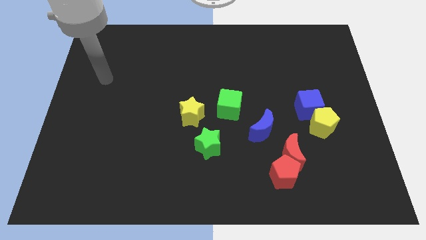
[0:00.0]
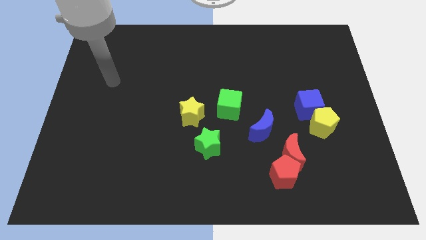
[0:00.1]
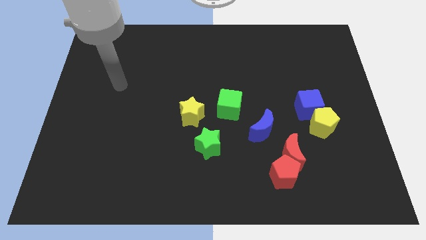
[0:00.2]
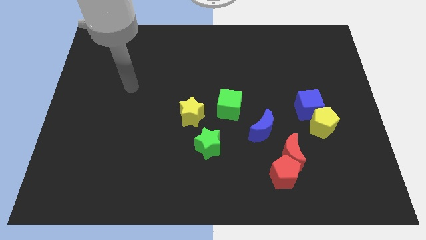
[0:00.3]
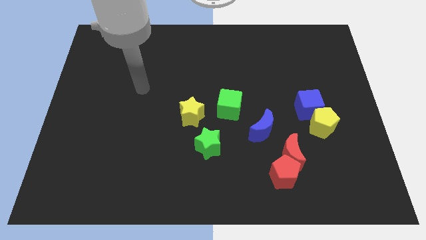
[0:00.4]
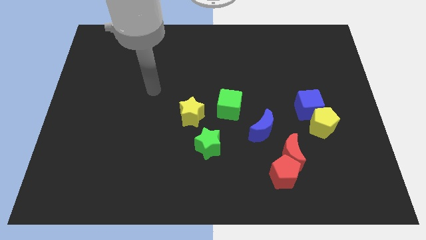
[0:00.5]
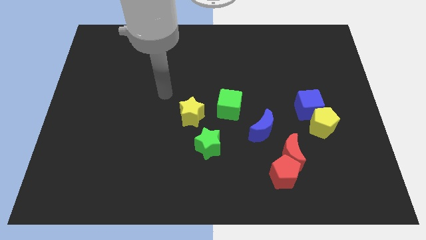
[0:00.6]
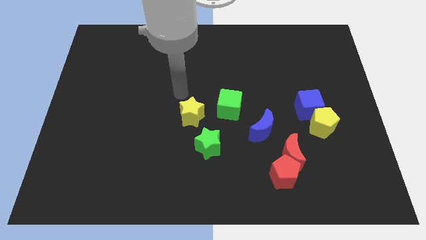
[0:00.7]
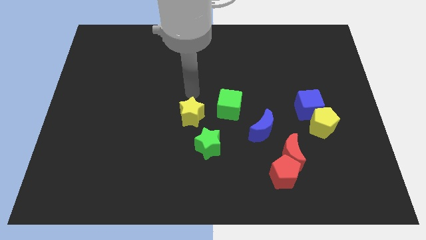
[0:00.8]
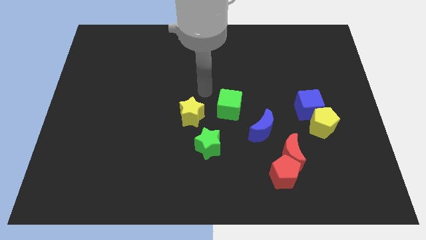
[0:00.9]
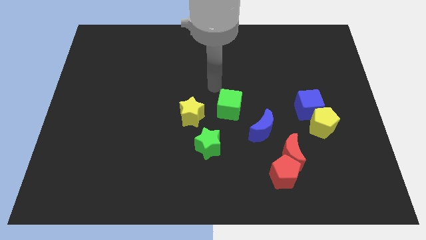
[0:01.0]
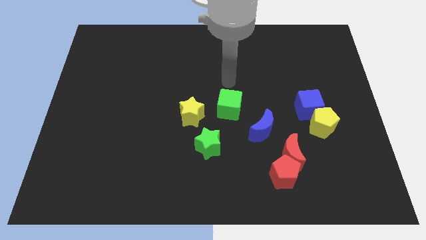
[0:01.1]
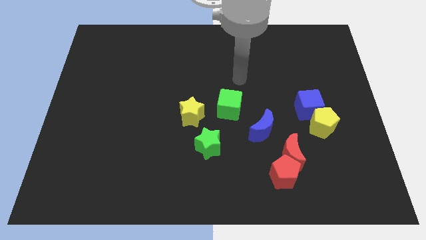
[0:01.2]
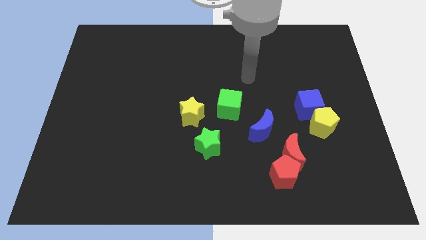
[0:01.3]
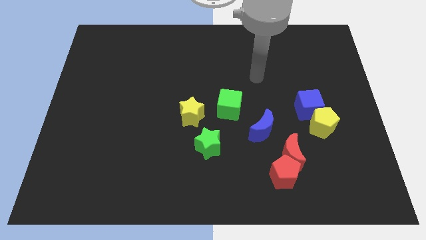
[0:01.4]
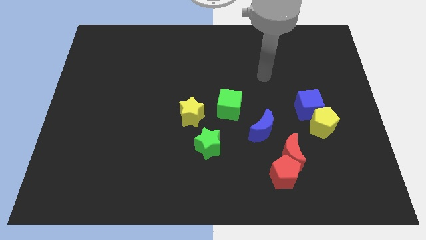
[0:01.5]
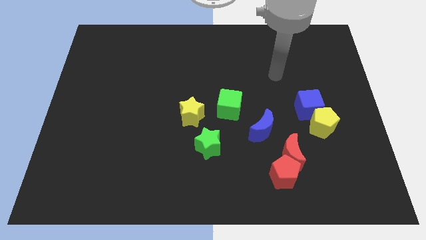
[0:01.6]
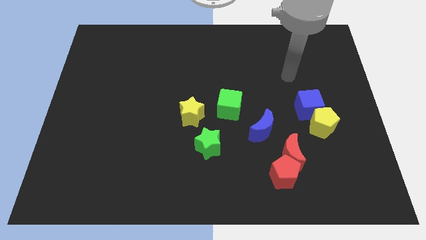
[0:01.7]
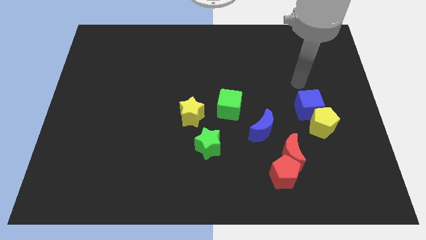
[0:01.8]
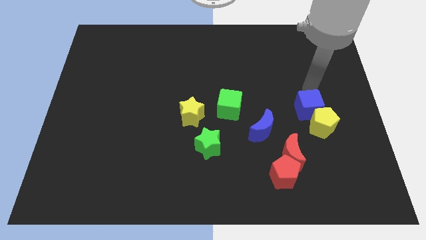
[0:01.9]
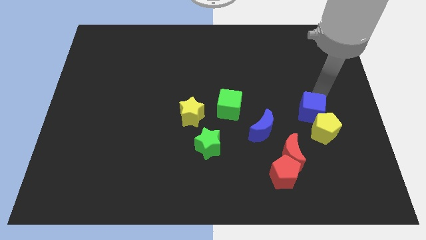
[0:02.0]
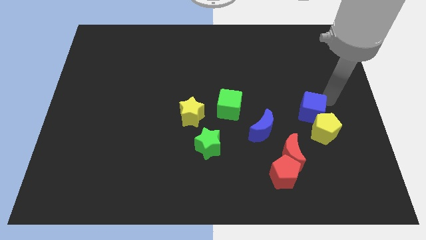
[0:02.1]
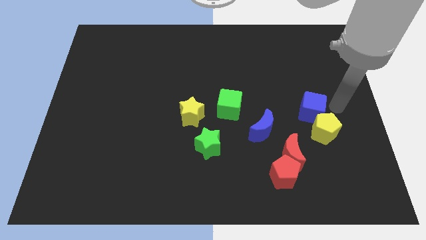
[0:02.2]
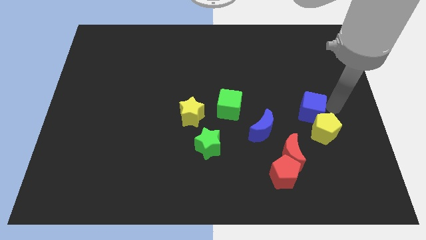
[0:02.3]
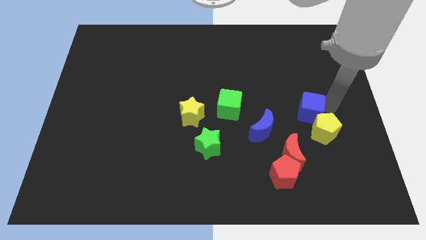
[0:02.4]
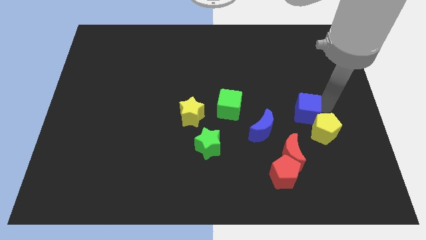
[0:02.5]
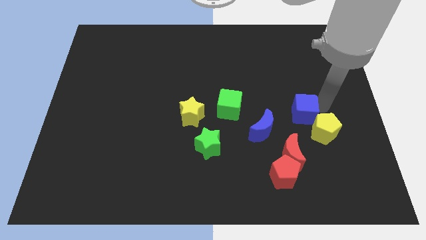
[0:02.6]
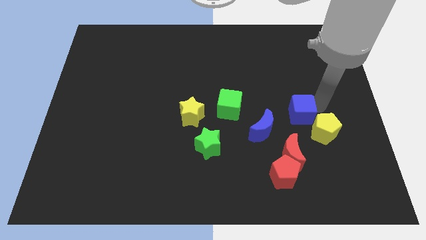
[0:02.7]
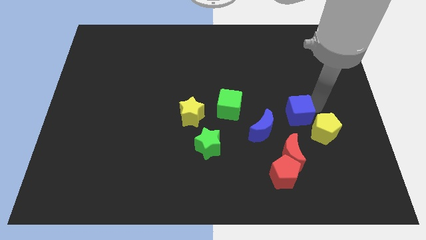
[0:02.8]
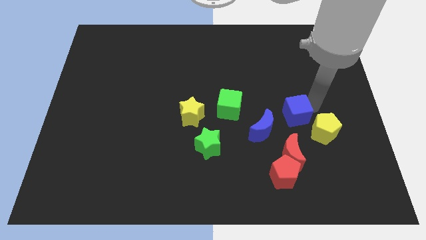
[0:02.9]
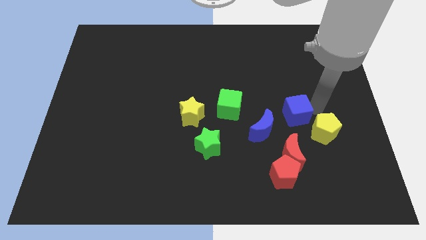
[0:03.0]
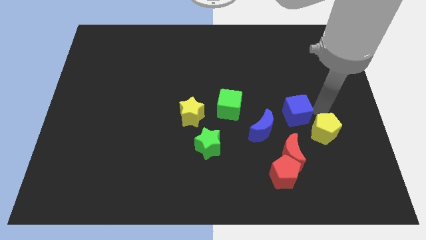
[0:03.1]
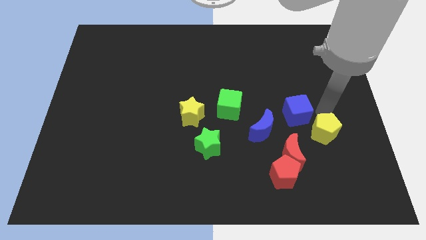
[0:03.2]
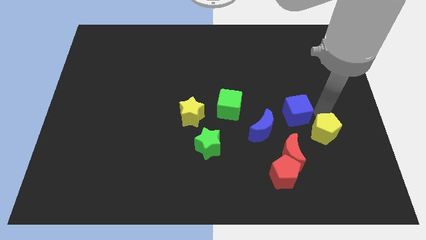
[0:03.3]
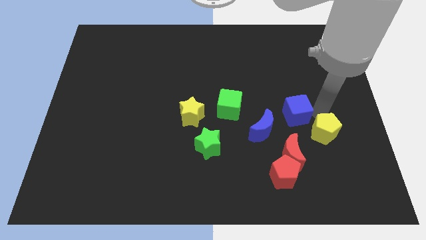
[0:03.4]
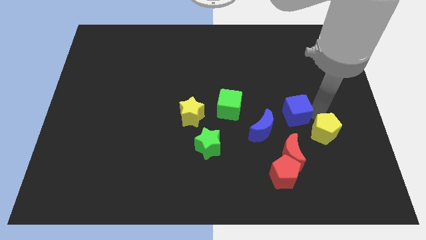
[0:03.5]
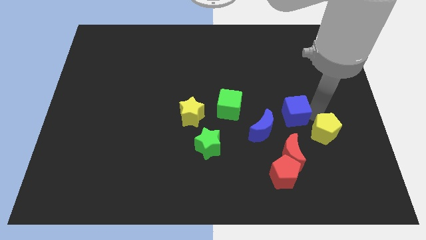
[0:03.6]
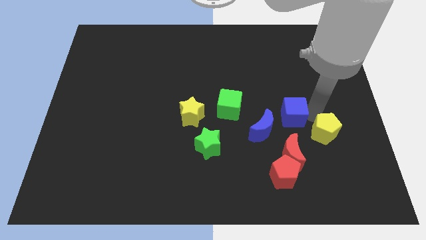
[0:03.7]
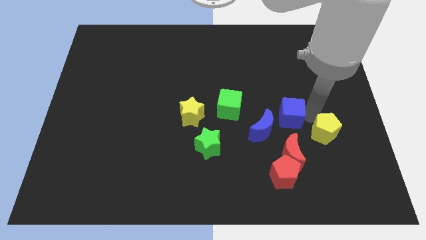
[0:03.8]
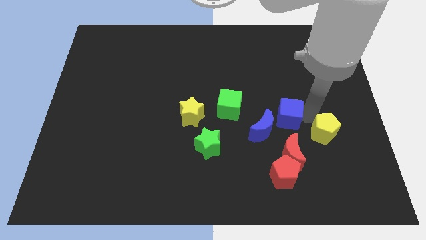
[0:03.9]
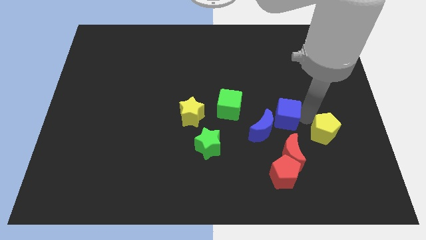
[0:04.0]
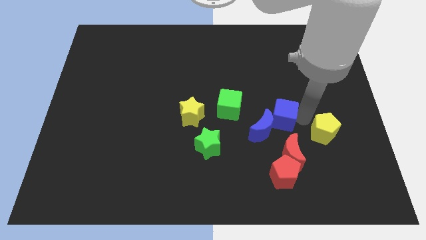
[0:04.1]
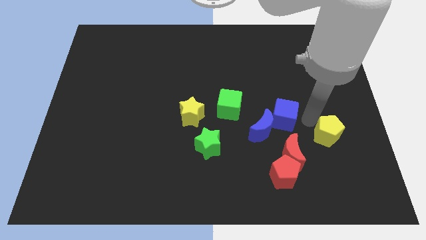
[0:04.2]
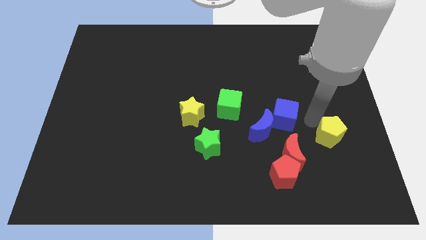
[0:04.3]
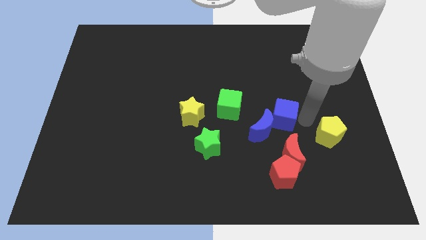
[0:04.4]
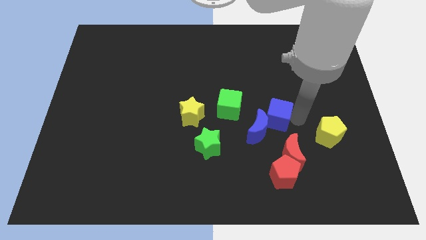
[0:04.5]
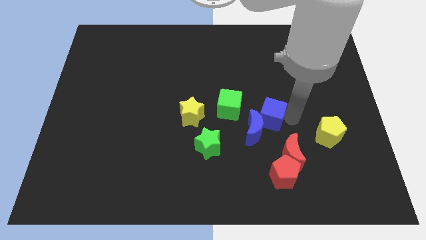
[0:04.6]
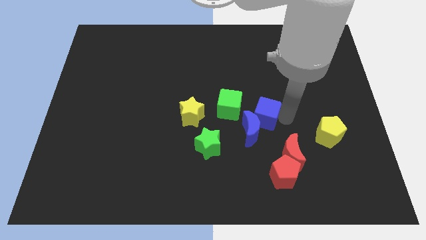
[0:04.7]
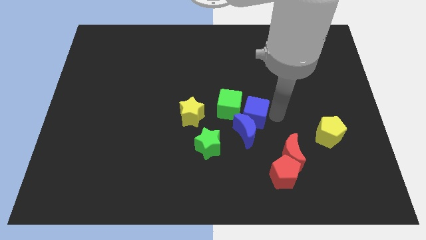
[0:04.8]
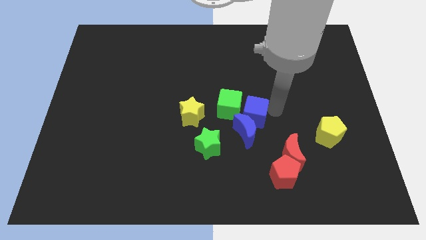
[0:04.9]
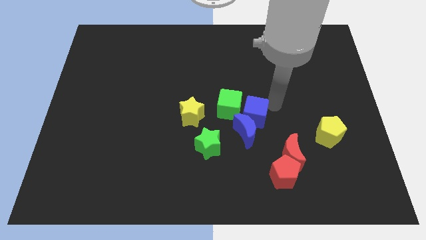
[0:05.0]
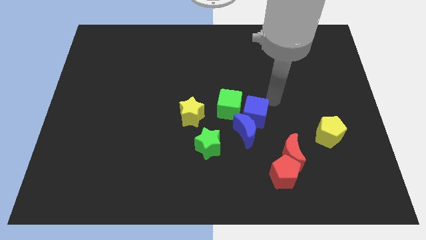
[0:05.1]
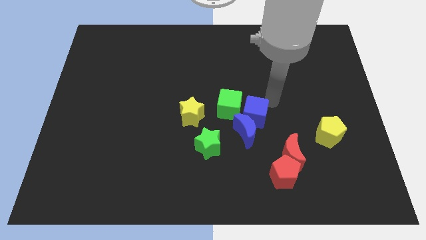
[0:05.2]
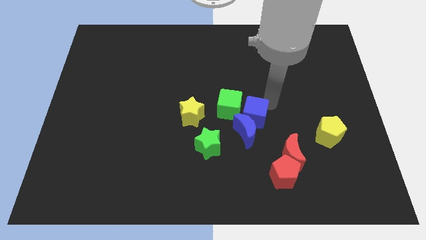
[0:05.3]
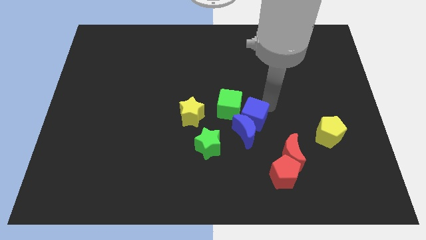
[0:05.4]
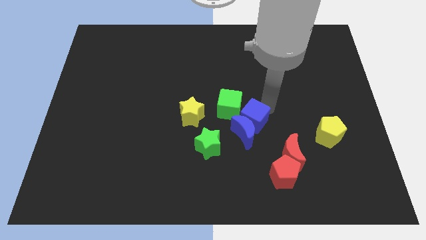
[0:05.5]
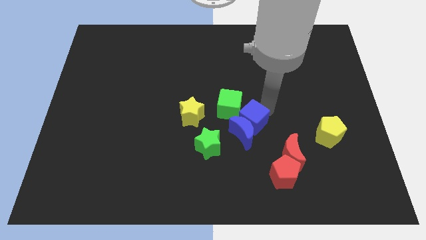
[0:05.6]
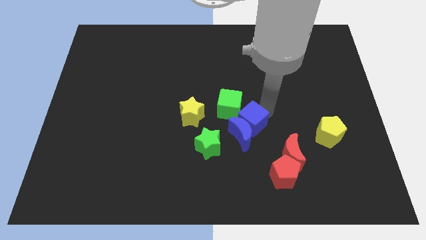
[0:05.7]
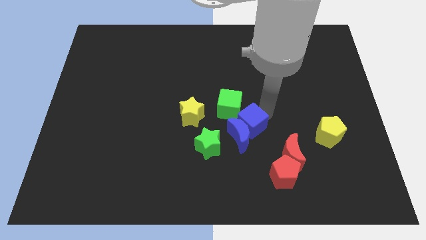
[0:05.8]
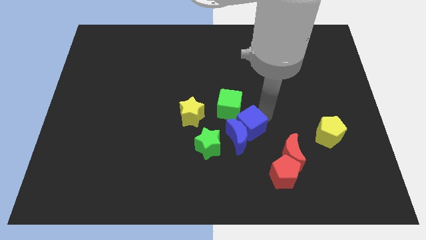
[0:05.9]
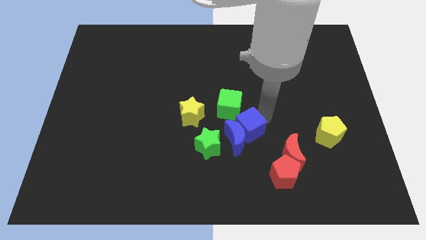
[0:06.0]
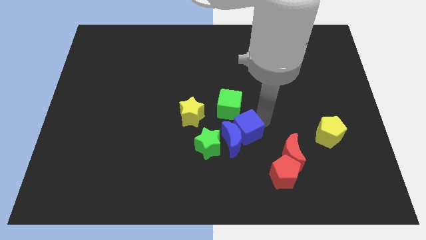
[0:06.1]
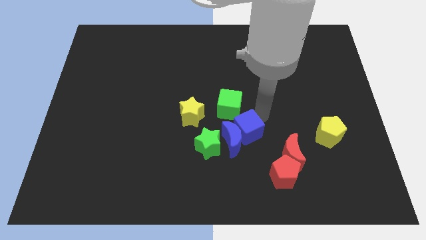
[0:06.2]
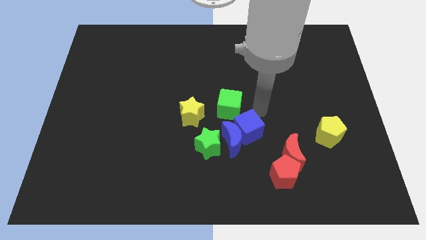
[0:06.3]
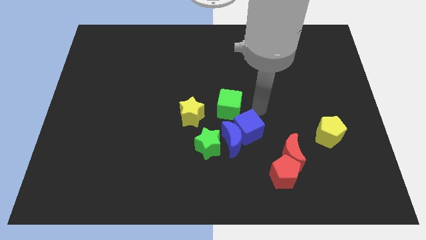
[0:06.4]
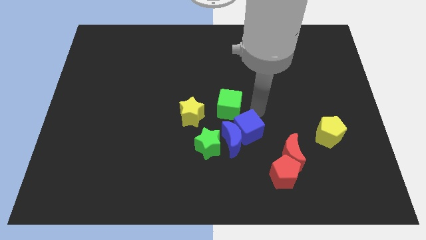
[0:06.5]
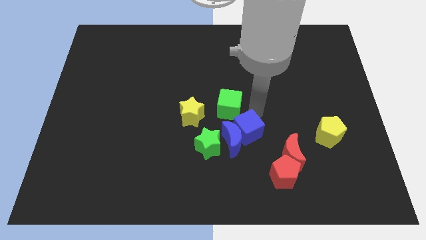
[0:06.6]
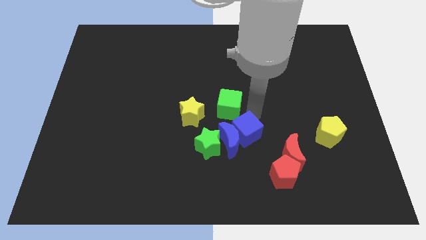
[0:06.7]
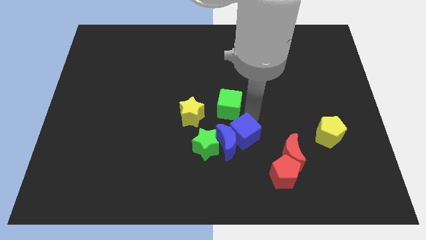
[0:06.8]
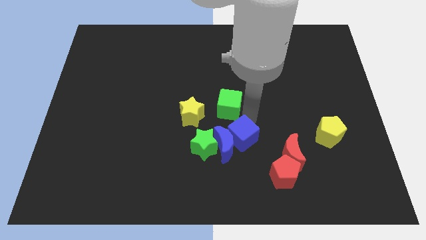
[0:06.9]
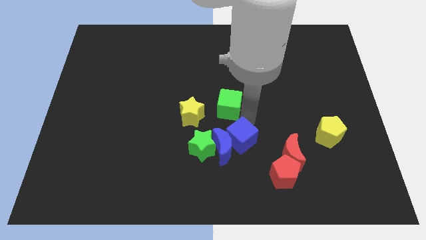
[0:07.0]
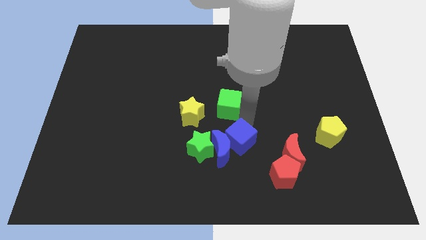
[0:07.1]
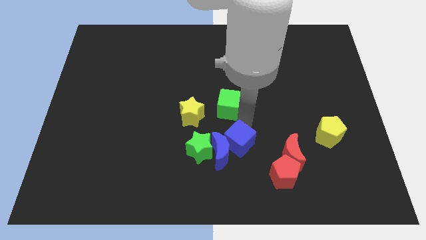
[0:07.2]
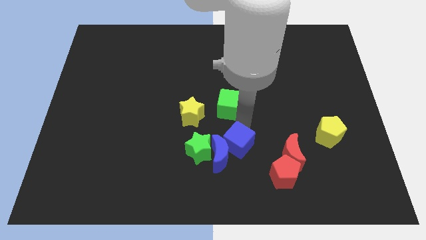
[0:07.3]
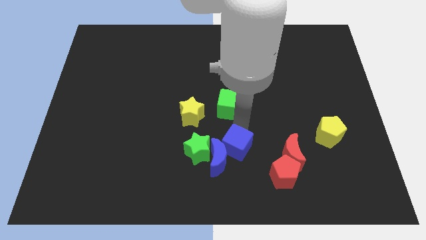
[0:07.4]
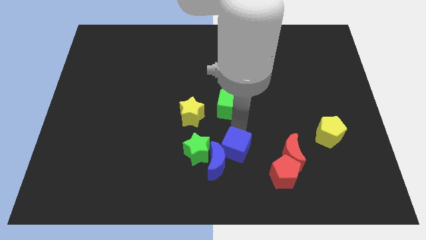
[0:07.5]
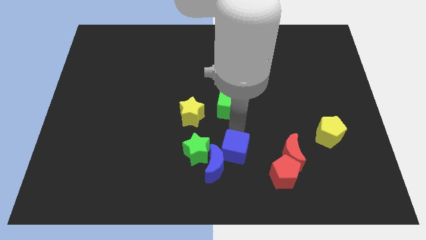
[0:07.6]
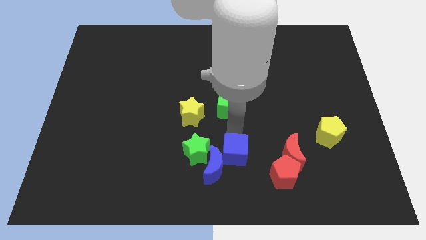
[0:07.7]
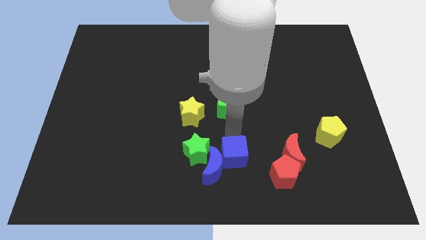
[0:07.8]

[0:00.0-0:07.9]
slide the blue cube to the left side of the red pentagon
